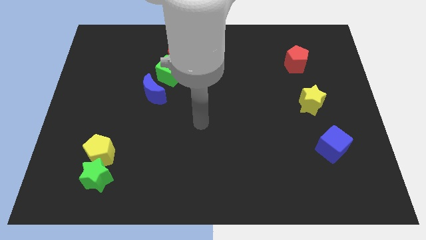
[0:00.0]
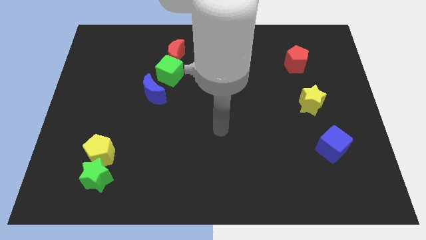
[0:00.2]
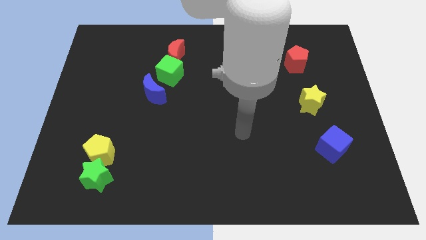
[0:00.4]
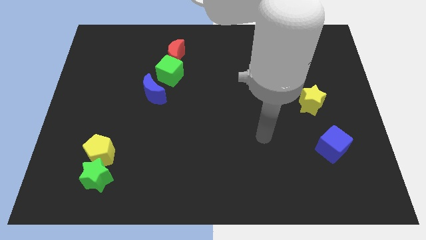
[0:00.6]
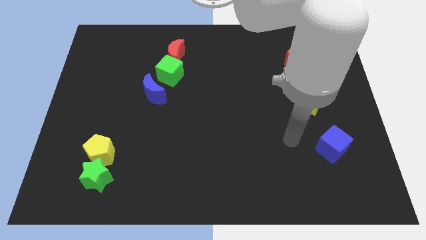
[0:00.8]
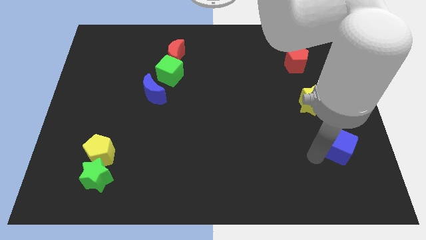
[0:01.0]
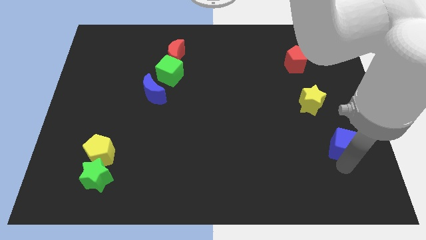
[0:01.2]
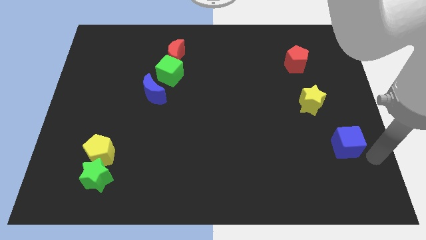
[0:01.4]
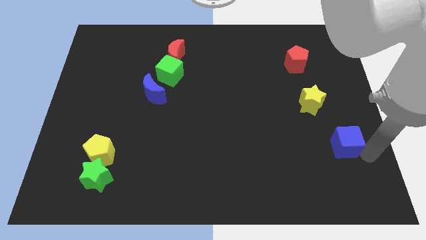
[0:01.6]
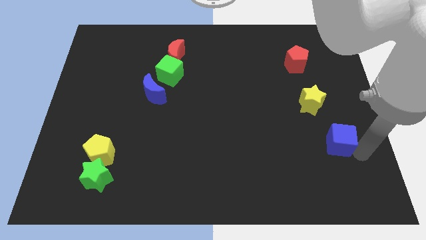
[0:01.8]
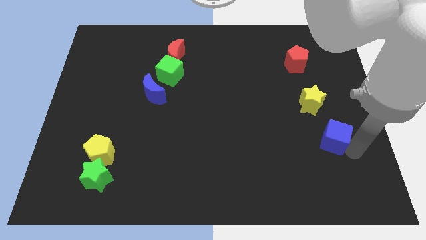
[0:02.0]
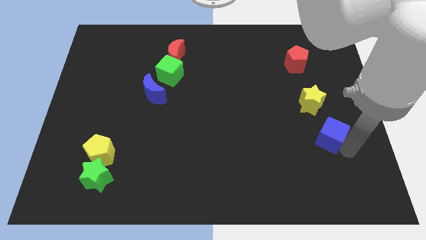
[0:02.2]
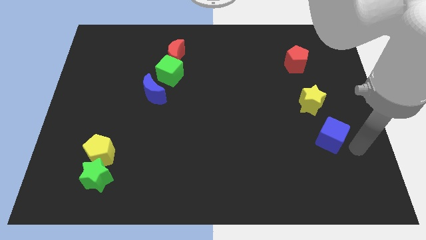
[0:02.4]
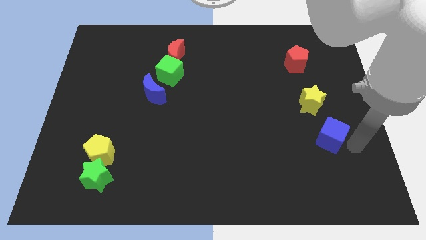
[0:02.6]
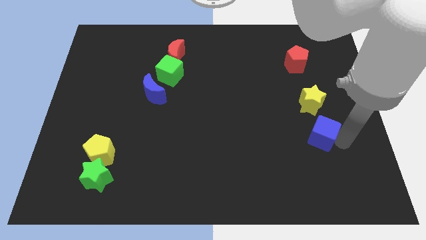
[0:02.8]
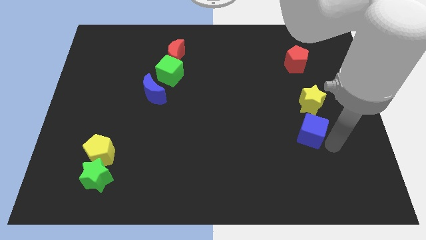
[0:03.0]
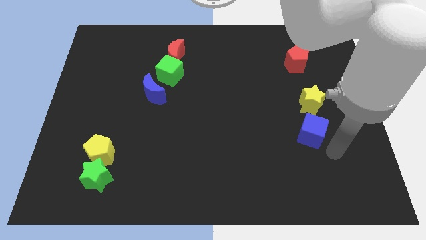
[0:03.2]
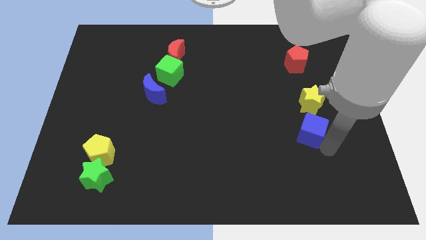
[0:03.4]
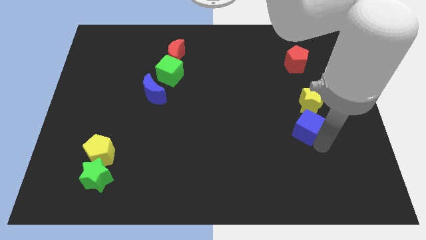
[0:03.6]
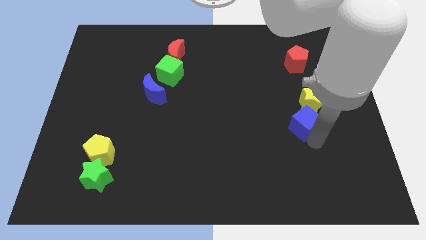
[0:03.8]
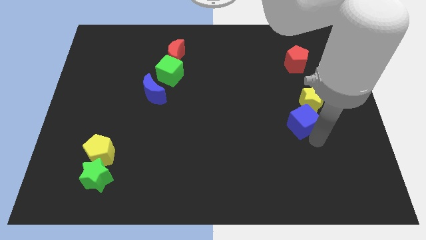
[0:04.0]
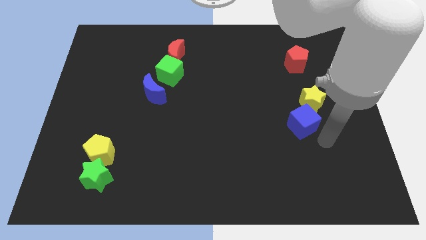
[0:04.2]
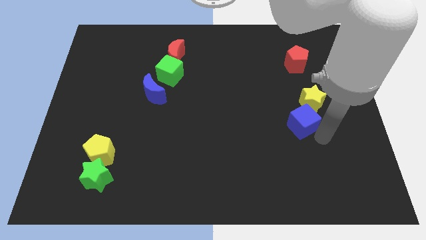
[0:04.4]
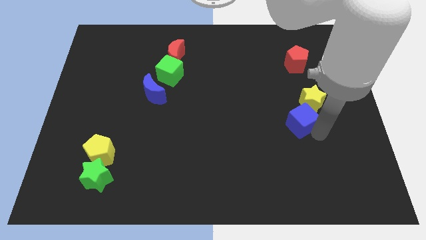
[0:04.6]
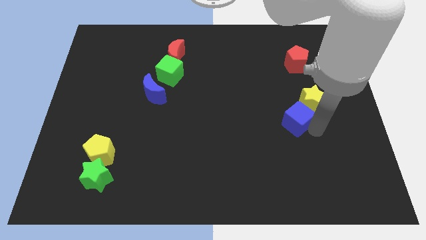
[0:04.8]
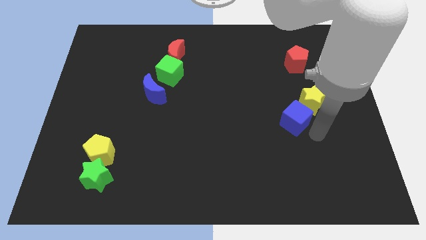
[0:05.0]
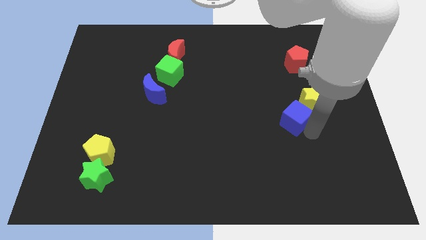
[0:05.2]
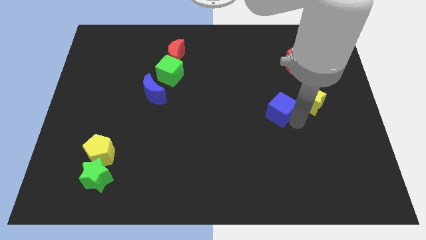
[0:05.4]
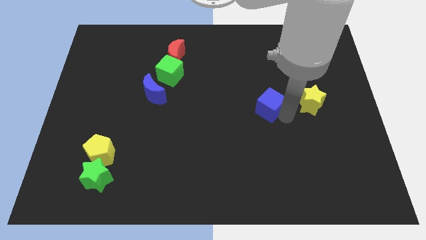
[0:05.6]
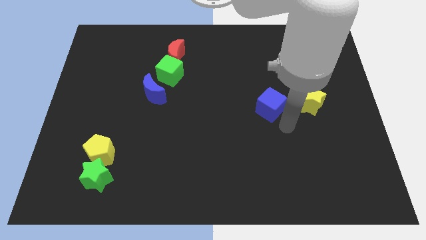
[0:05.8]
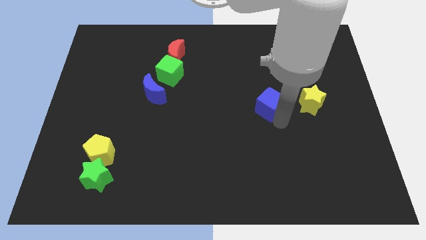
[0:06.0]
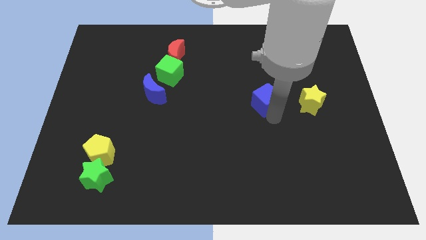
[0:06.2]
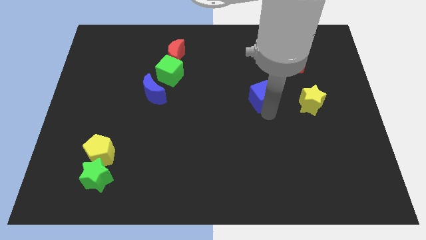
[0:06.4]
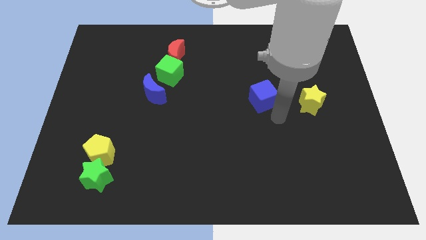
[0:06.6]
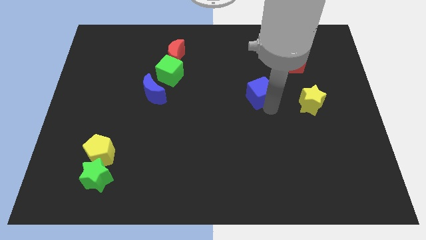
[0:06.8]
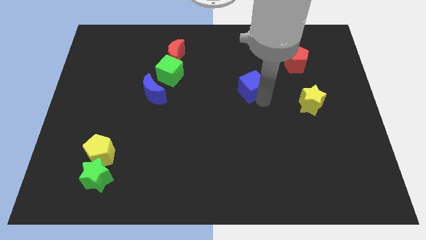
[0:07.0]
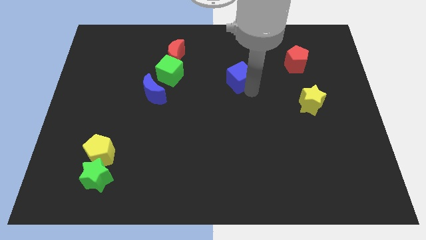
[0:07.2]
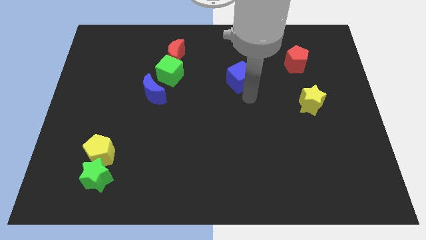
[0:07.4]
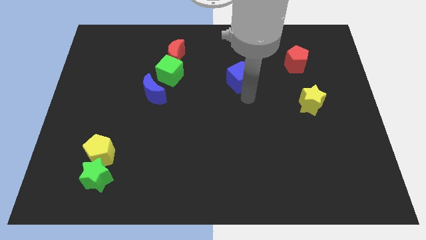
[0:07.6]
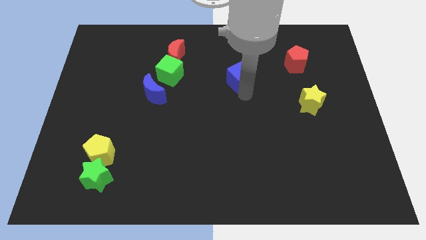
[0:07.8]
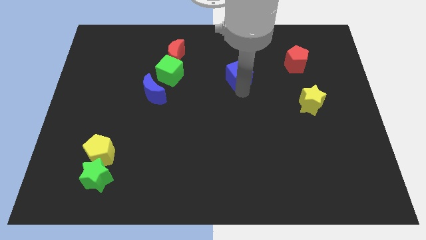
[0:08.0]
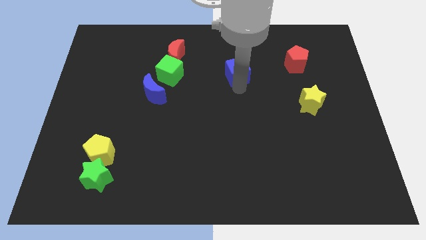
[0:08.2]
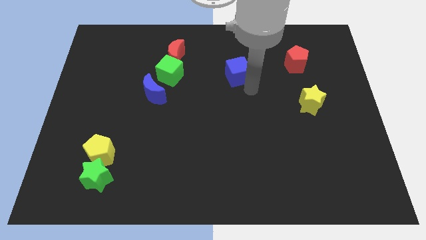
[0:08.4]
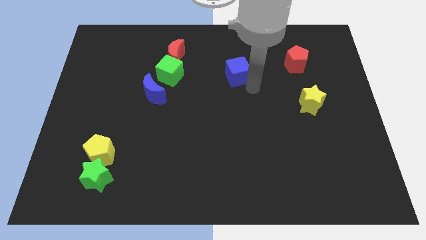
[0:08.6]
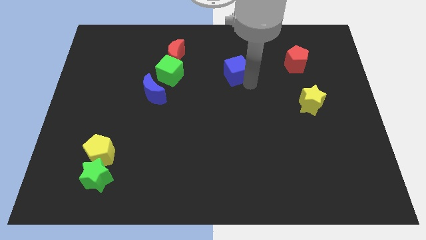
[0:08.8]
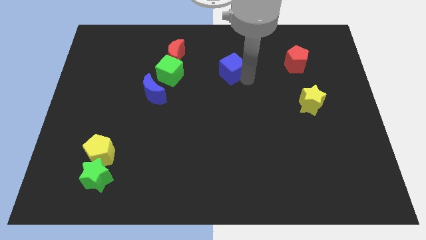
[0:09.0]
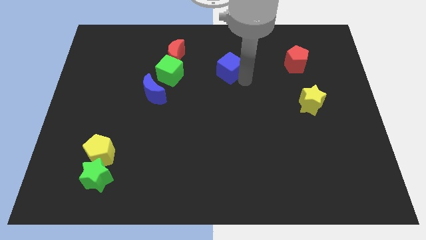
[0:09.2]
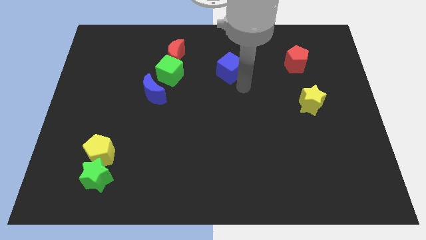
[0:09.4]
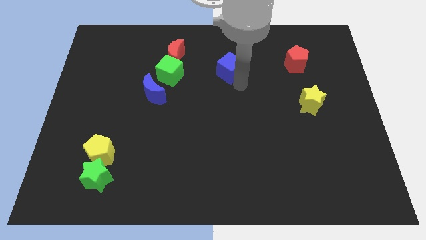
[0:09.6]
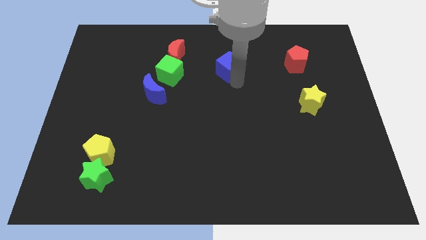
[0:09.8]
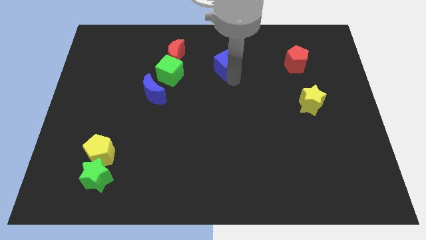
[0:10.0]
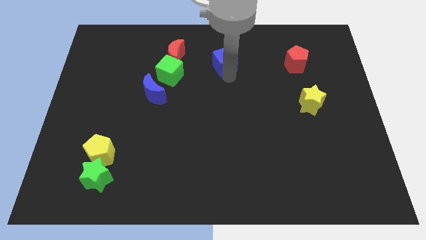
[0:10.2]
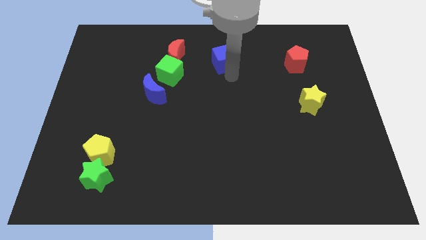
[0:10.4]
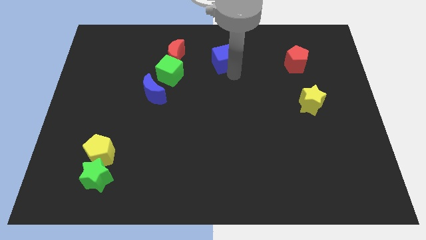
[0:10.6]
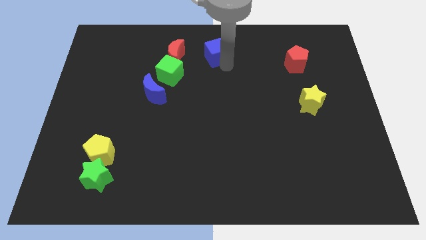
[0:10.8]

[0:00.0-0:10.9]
move the blue cube to the top

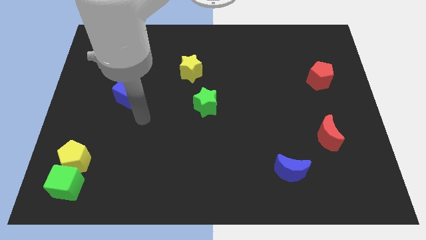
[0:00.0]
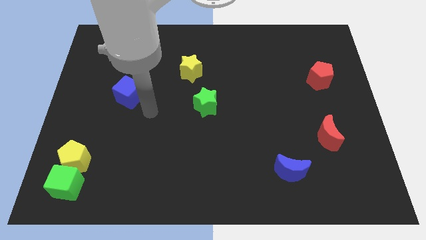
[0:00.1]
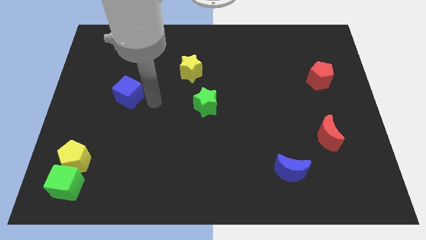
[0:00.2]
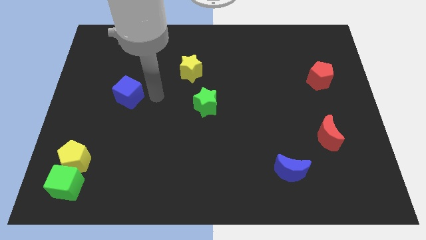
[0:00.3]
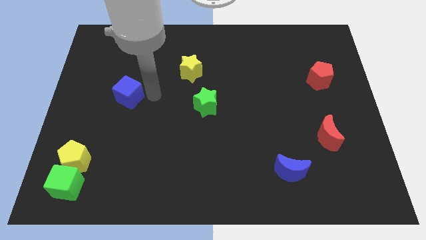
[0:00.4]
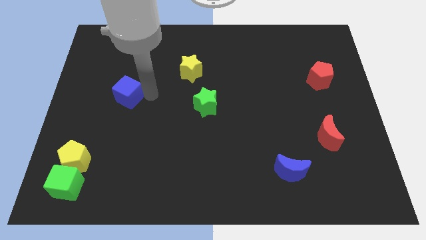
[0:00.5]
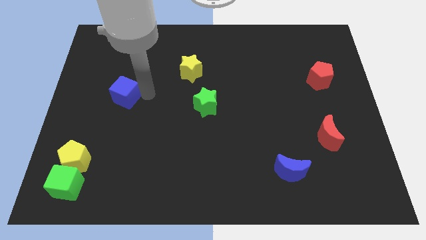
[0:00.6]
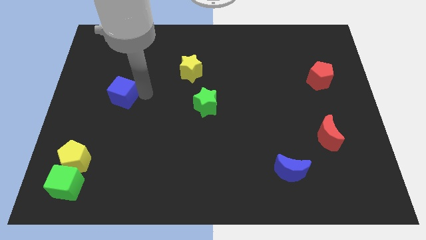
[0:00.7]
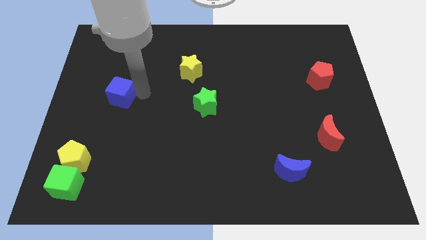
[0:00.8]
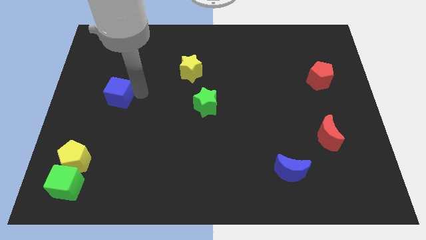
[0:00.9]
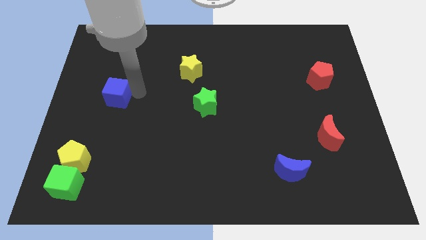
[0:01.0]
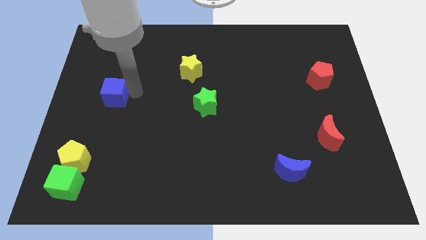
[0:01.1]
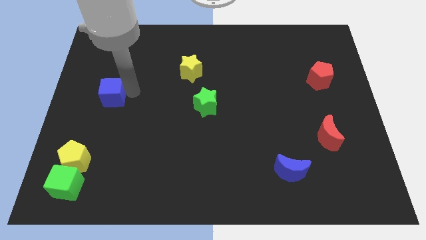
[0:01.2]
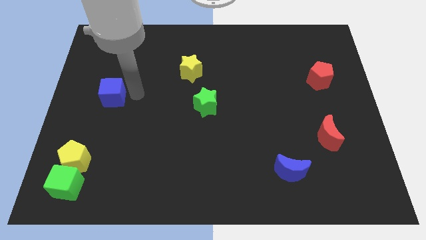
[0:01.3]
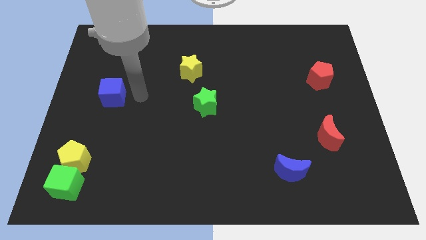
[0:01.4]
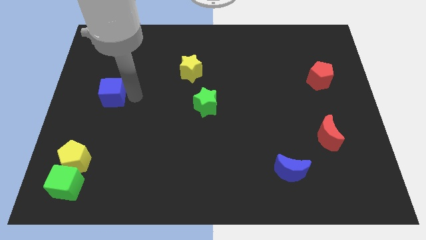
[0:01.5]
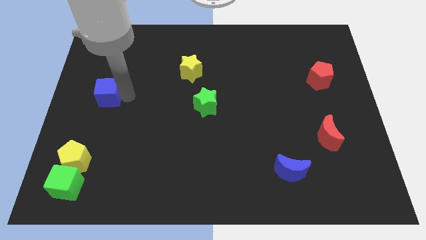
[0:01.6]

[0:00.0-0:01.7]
put the blue cube to the left side

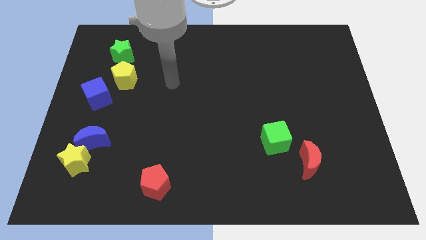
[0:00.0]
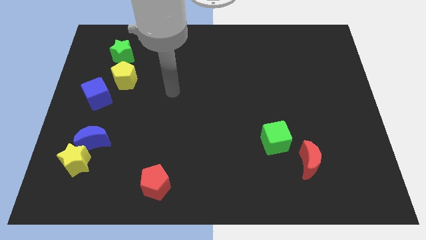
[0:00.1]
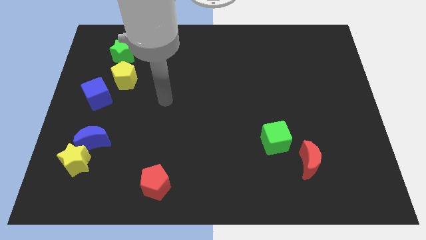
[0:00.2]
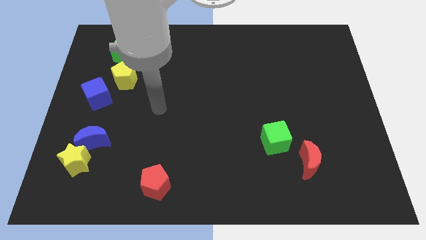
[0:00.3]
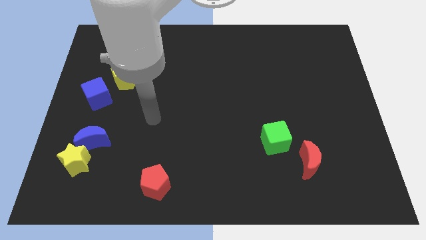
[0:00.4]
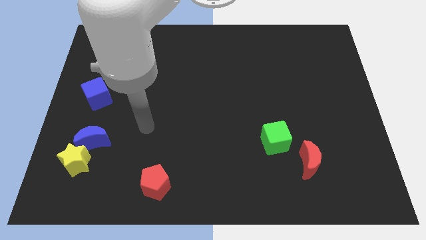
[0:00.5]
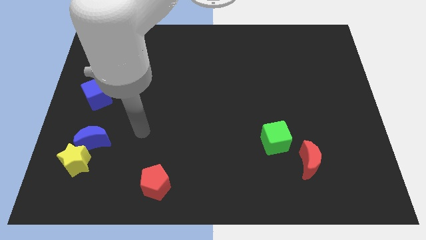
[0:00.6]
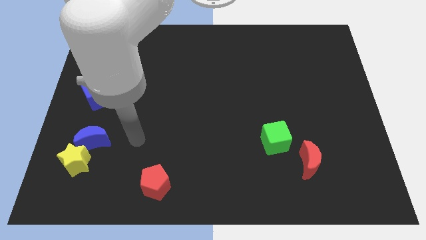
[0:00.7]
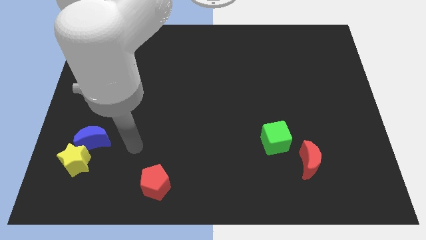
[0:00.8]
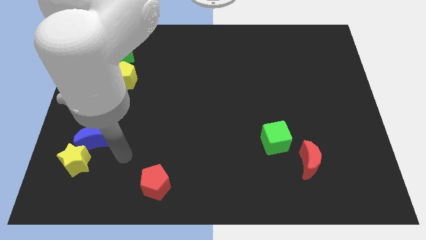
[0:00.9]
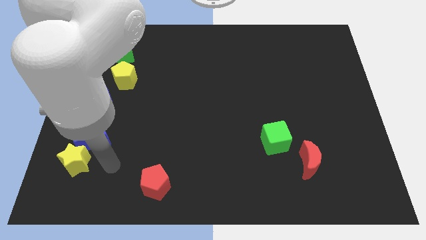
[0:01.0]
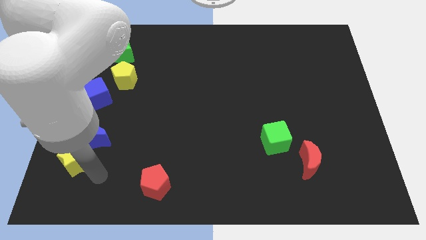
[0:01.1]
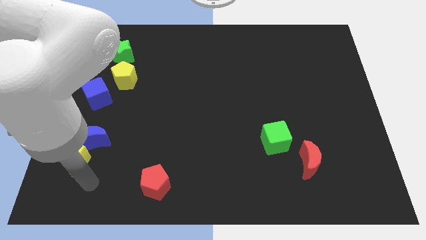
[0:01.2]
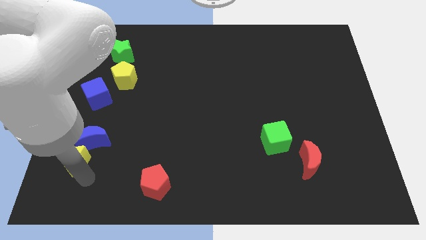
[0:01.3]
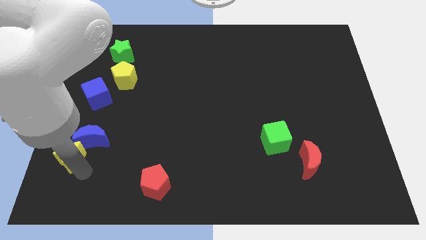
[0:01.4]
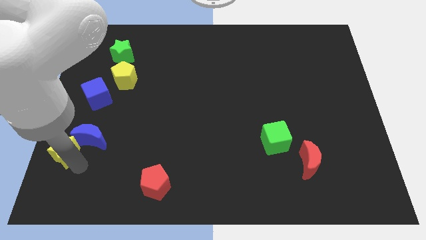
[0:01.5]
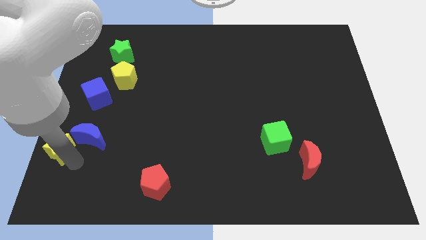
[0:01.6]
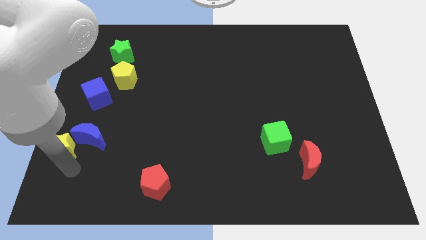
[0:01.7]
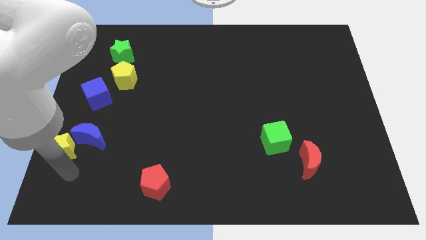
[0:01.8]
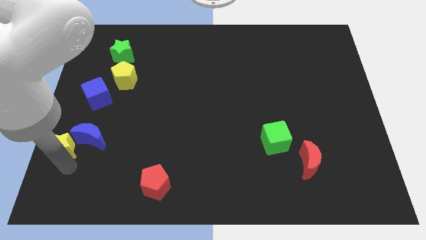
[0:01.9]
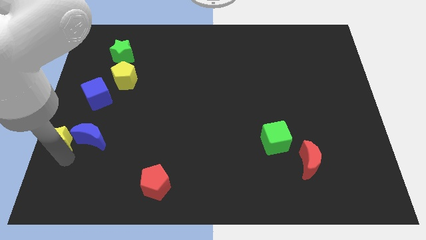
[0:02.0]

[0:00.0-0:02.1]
slide the yellow star to the center left
